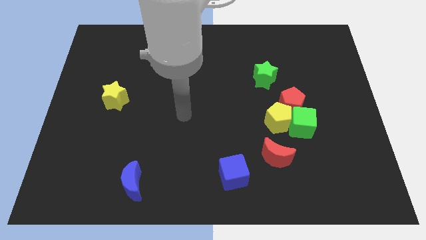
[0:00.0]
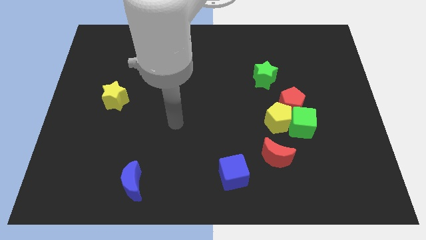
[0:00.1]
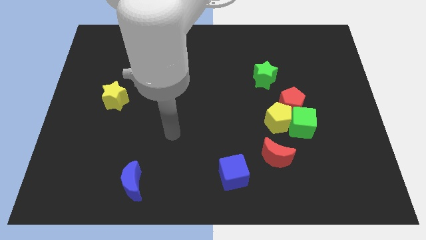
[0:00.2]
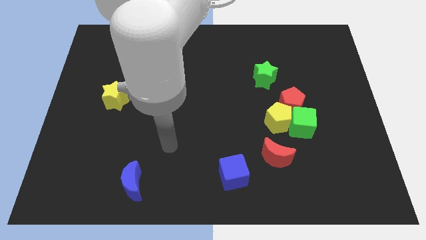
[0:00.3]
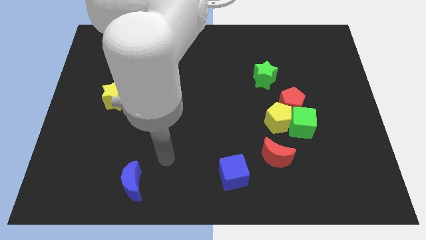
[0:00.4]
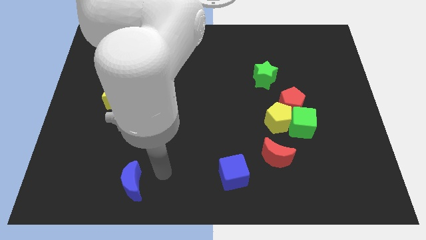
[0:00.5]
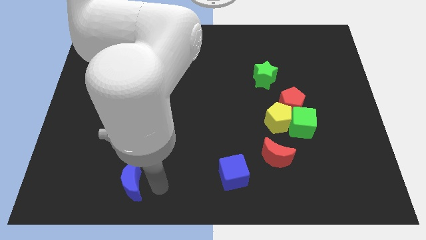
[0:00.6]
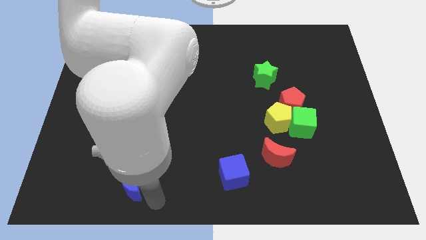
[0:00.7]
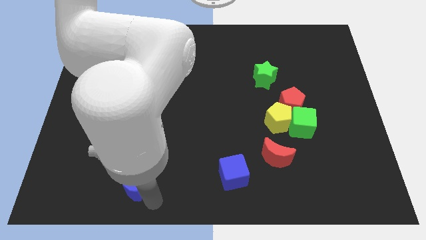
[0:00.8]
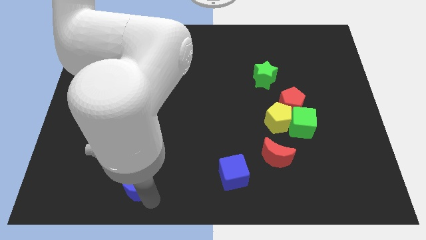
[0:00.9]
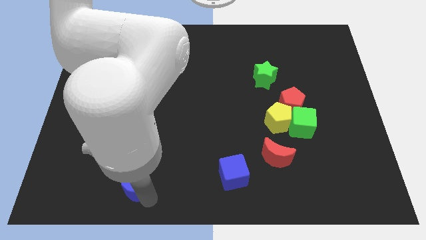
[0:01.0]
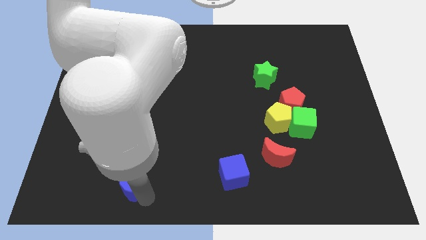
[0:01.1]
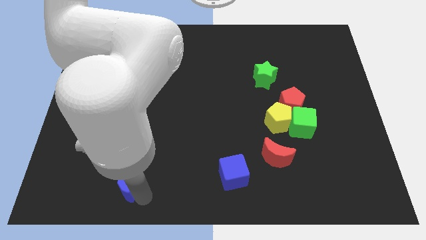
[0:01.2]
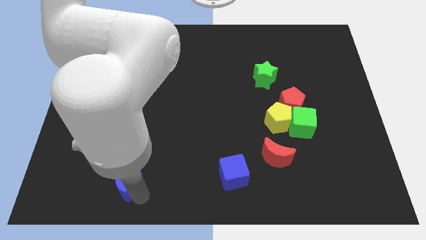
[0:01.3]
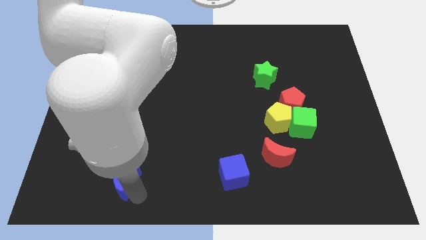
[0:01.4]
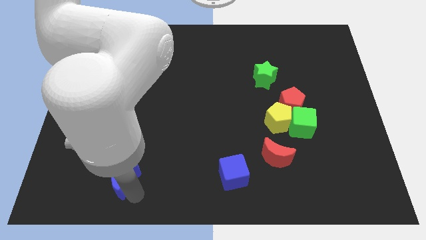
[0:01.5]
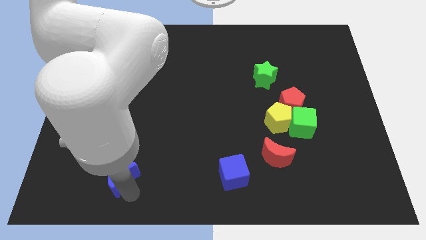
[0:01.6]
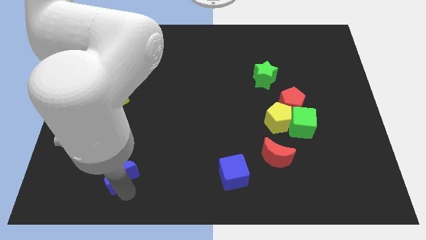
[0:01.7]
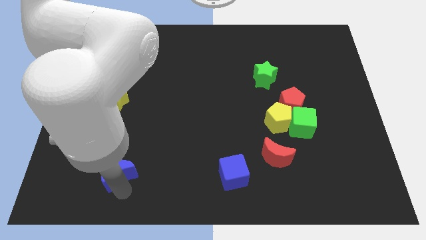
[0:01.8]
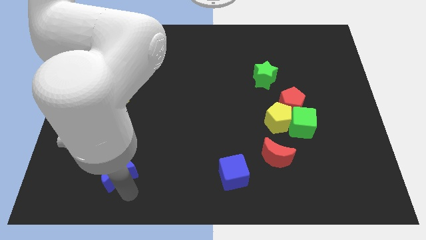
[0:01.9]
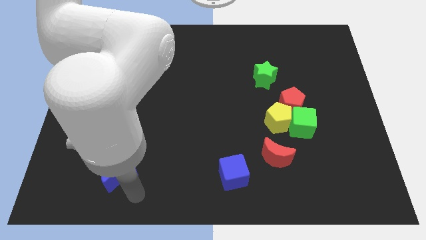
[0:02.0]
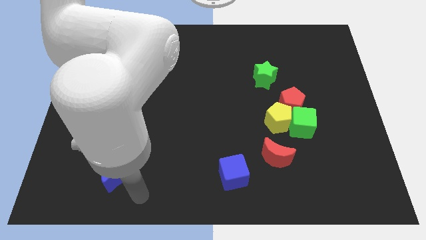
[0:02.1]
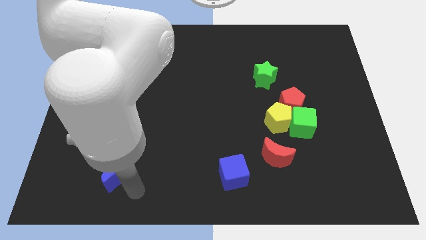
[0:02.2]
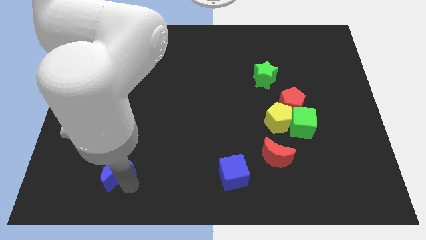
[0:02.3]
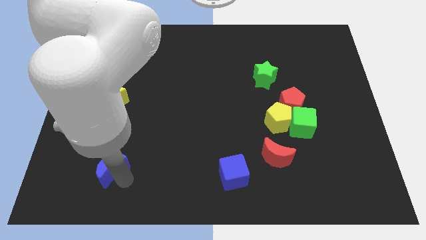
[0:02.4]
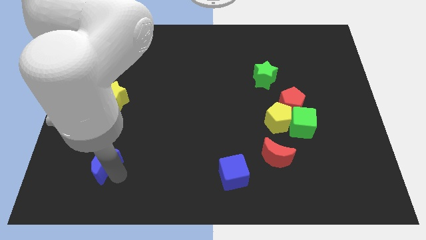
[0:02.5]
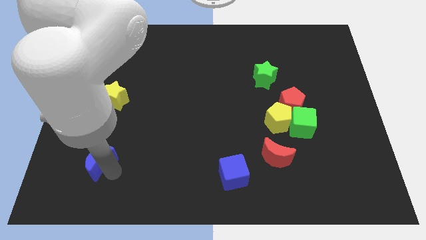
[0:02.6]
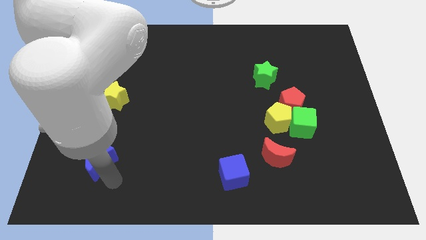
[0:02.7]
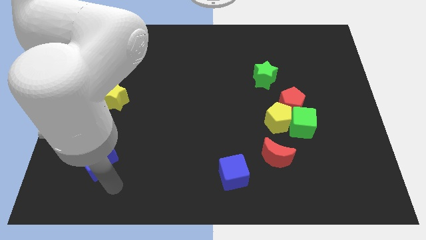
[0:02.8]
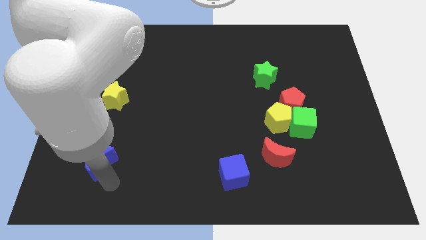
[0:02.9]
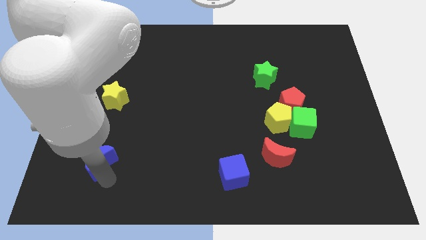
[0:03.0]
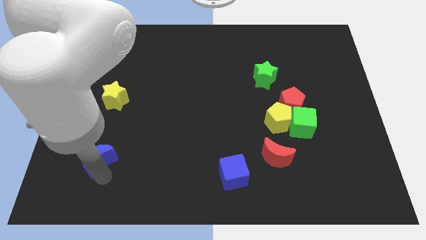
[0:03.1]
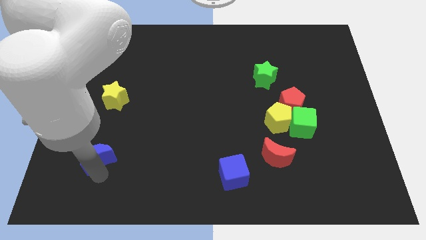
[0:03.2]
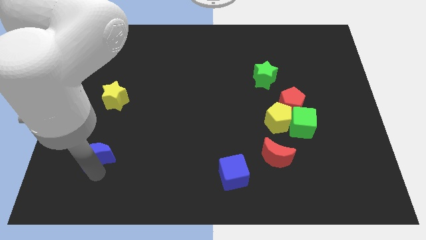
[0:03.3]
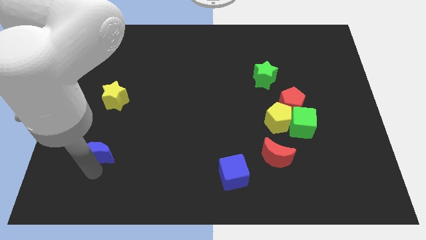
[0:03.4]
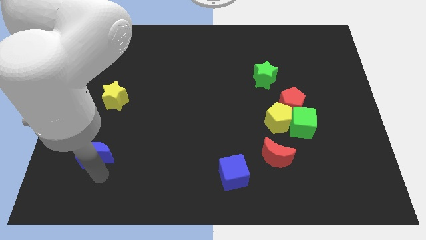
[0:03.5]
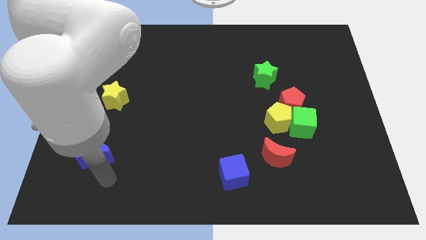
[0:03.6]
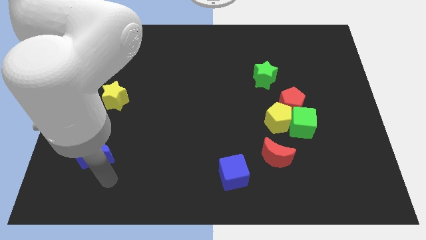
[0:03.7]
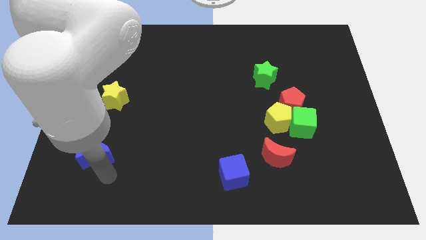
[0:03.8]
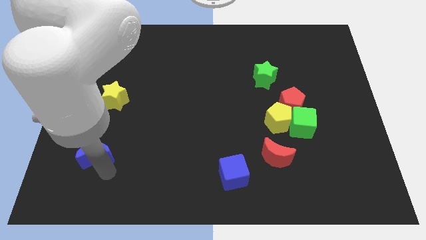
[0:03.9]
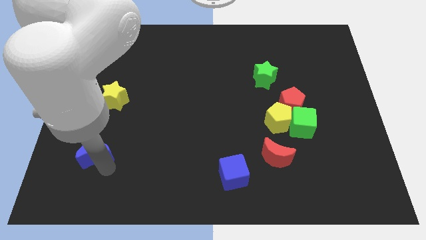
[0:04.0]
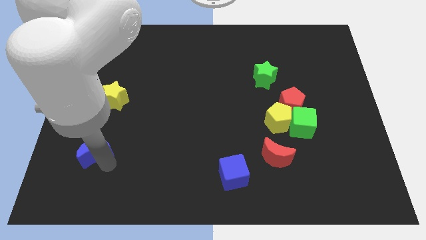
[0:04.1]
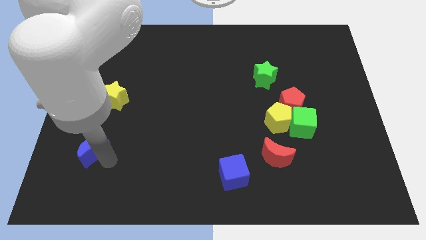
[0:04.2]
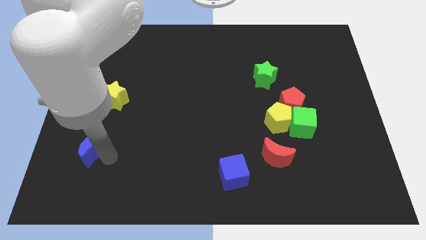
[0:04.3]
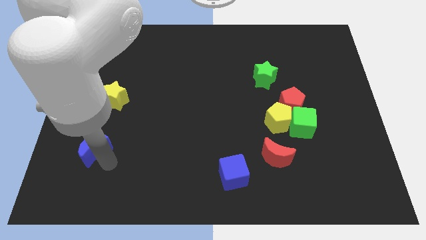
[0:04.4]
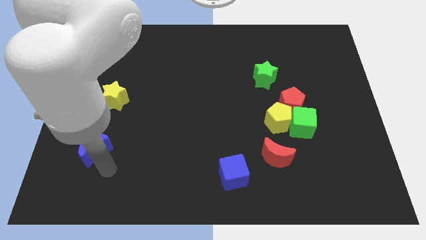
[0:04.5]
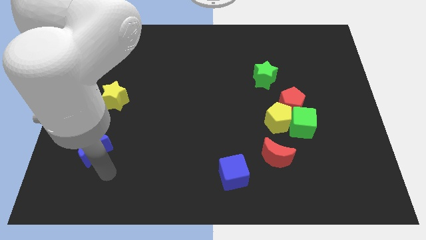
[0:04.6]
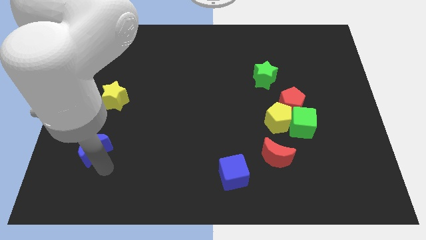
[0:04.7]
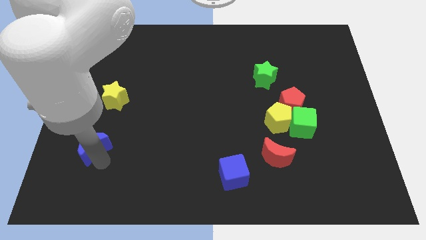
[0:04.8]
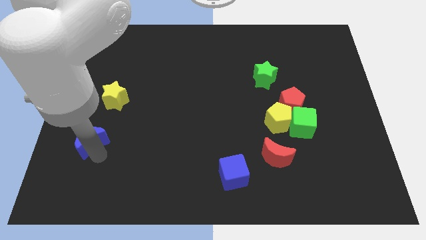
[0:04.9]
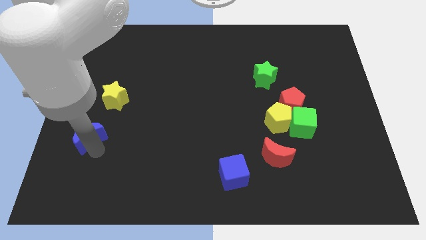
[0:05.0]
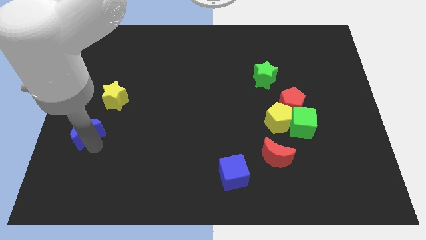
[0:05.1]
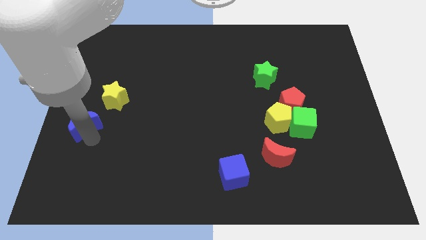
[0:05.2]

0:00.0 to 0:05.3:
put the blue moon to the center left

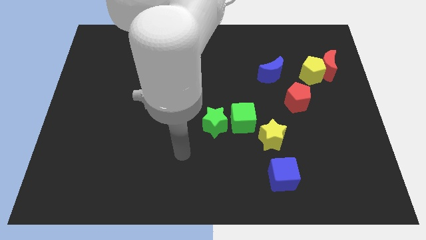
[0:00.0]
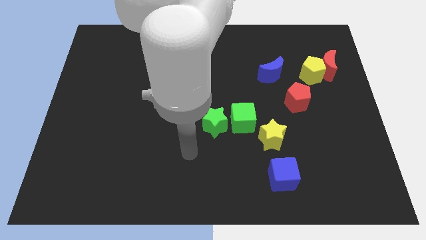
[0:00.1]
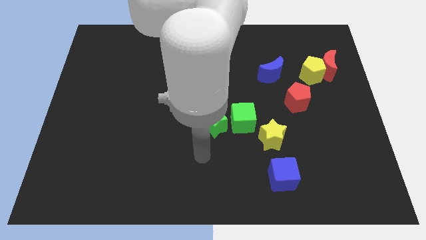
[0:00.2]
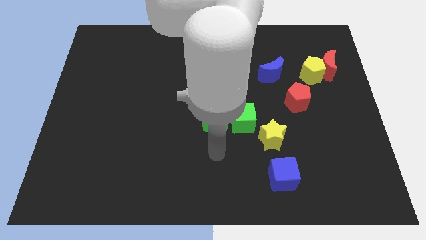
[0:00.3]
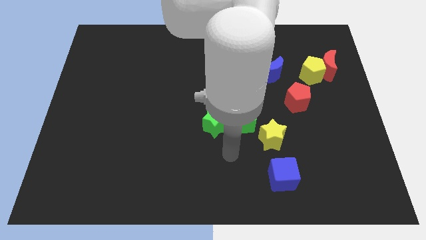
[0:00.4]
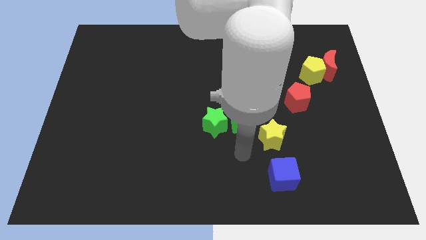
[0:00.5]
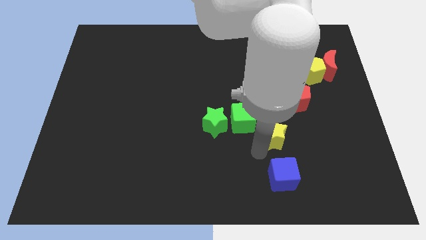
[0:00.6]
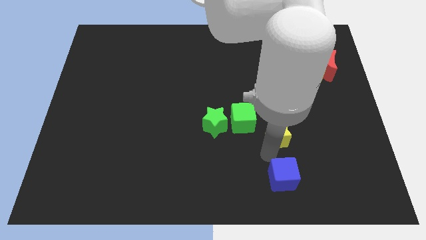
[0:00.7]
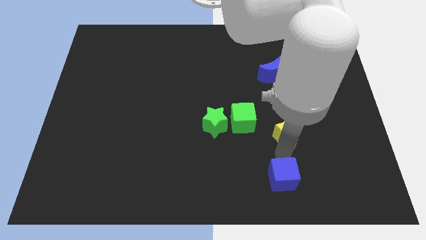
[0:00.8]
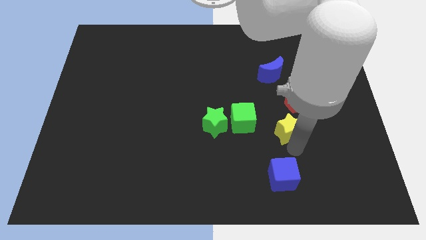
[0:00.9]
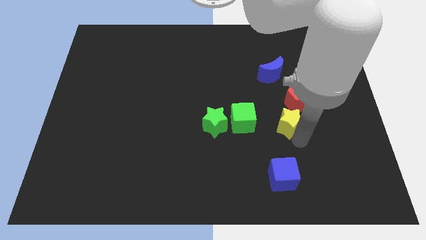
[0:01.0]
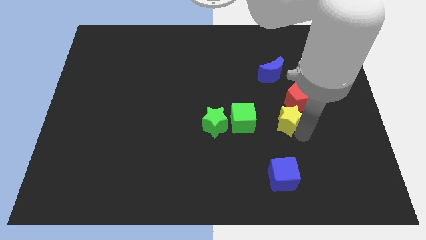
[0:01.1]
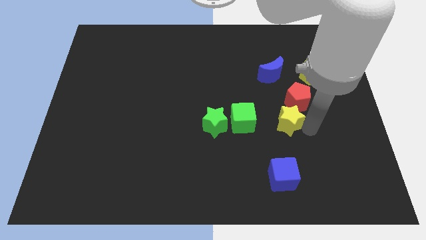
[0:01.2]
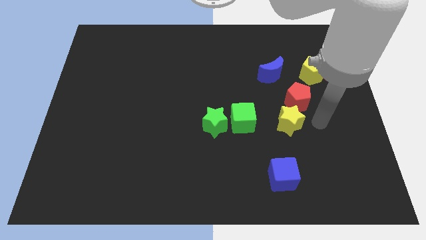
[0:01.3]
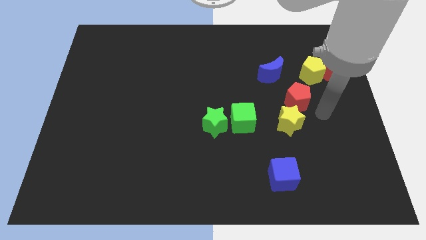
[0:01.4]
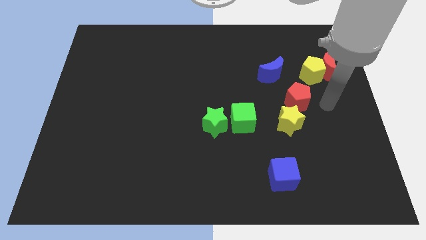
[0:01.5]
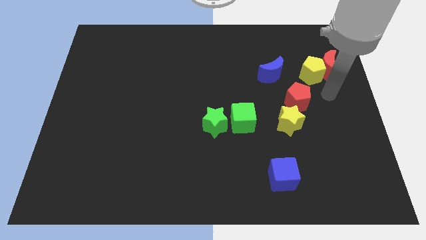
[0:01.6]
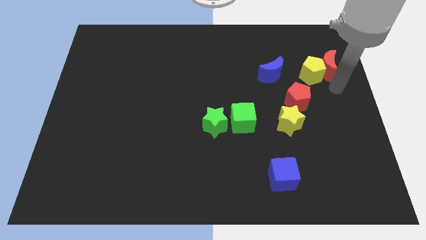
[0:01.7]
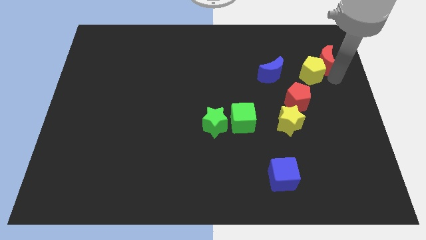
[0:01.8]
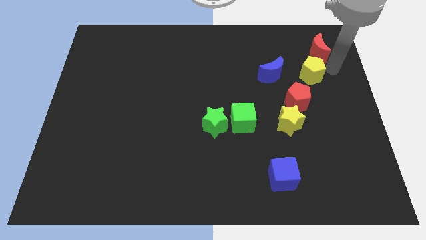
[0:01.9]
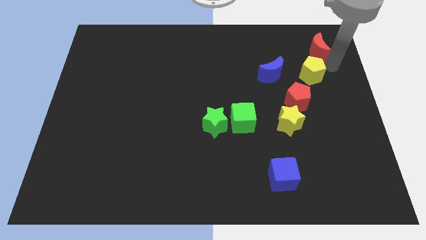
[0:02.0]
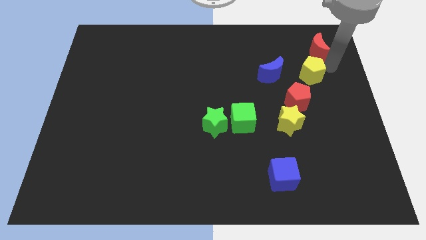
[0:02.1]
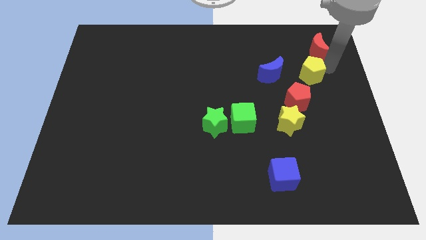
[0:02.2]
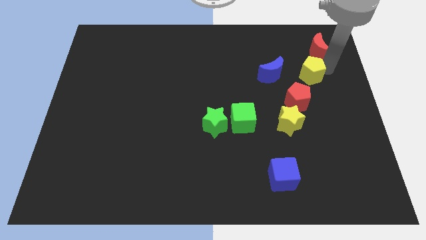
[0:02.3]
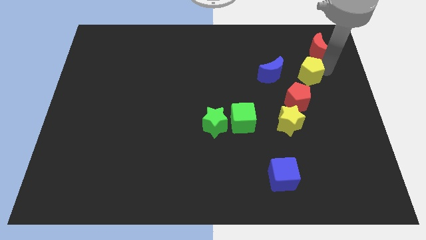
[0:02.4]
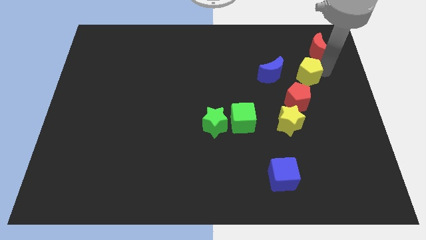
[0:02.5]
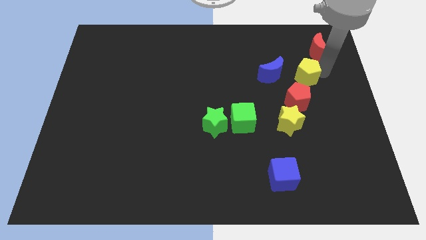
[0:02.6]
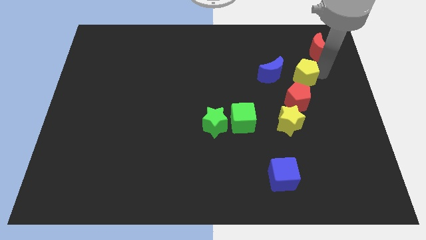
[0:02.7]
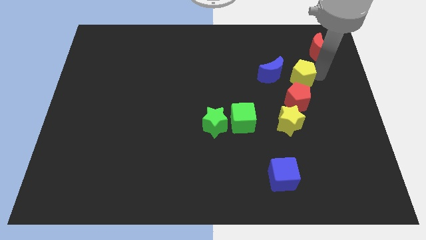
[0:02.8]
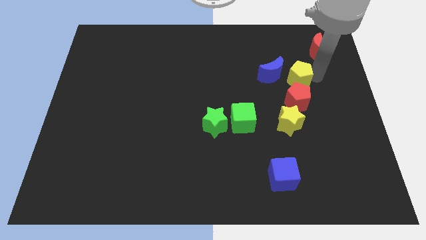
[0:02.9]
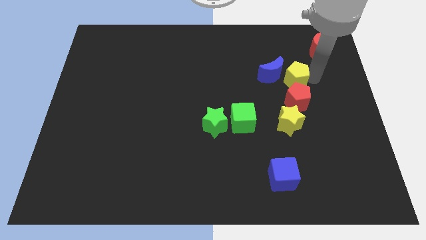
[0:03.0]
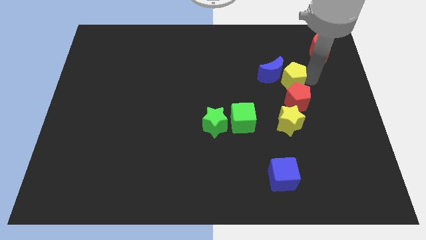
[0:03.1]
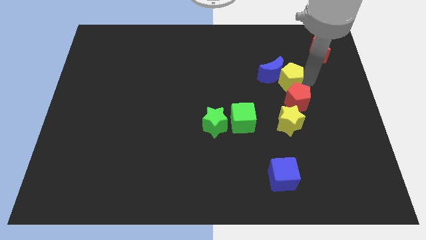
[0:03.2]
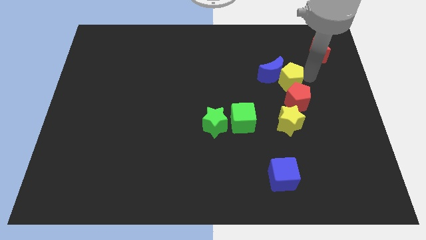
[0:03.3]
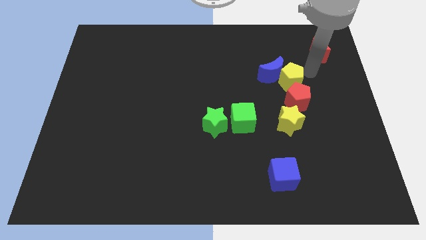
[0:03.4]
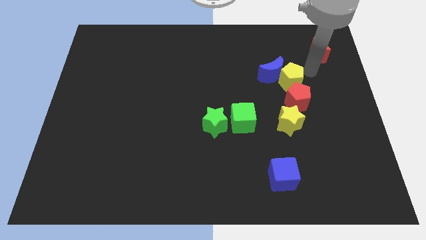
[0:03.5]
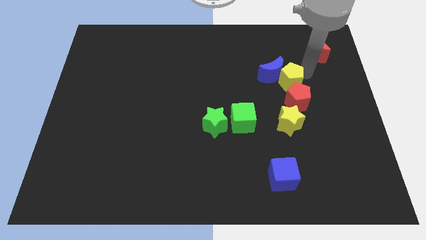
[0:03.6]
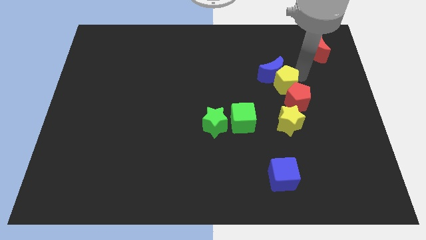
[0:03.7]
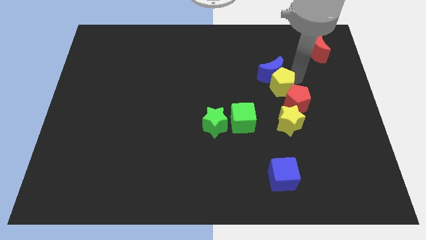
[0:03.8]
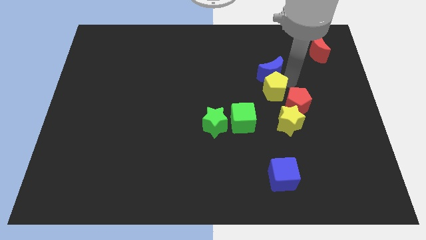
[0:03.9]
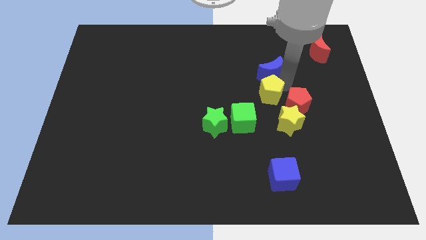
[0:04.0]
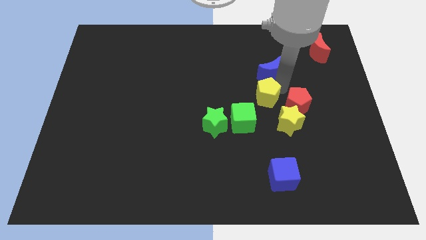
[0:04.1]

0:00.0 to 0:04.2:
put the yellow pentagon to the center of the board
